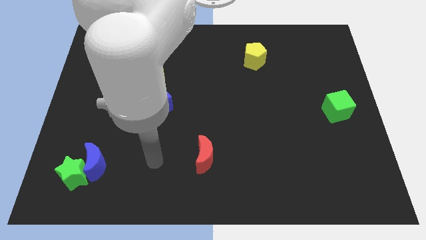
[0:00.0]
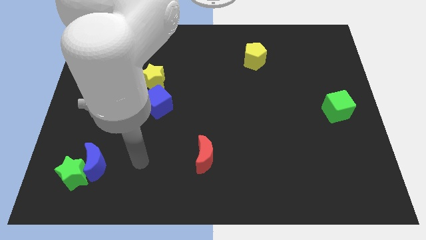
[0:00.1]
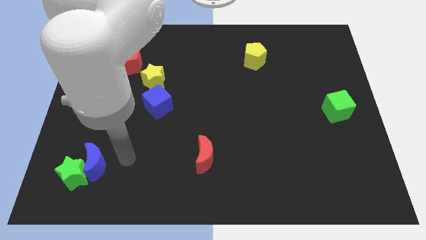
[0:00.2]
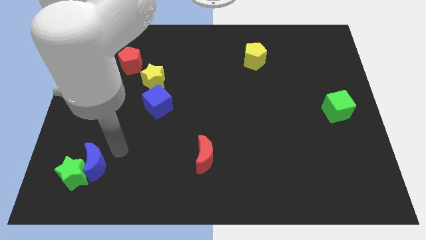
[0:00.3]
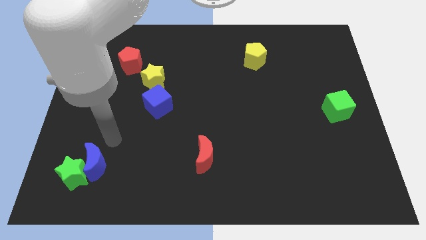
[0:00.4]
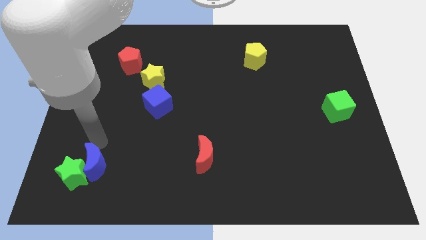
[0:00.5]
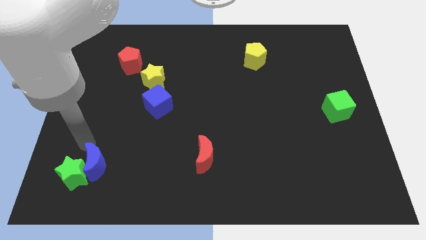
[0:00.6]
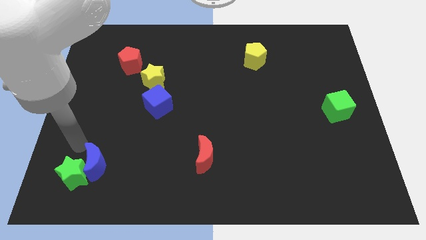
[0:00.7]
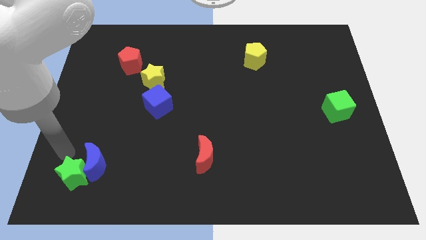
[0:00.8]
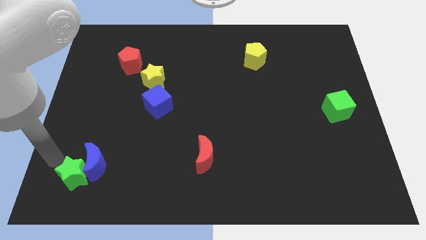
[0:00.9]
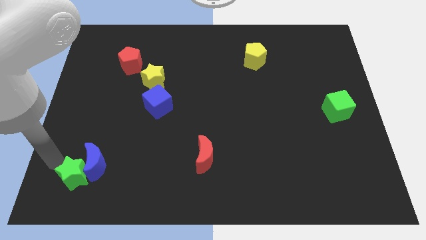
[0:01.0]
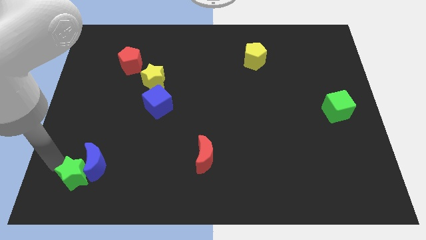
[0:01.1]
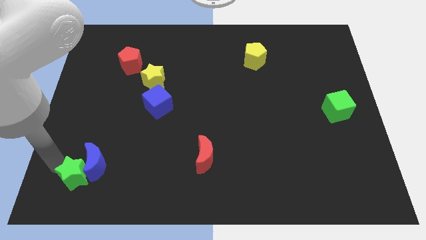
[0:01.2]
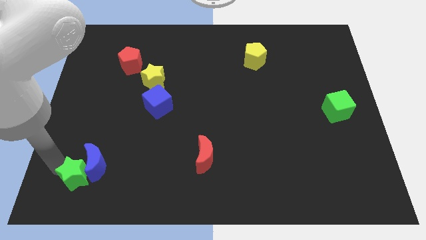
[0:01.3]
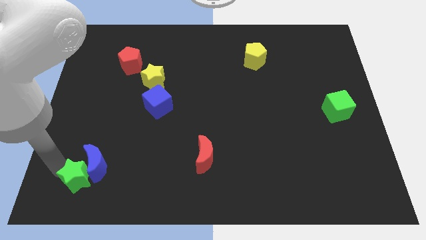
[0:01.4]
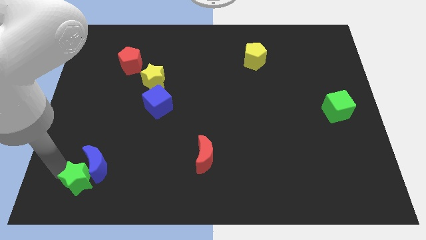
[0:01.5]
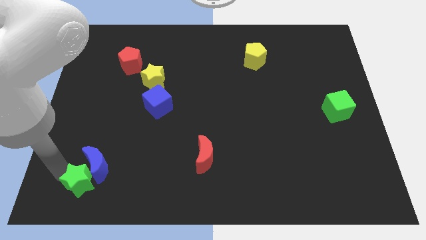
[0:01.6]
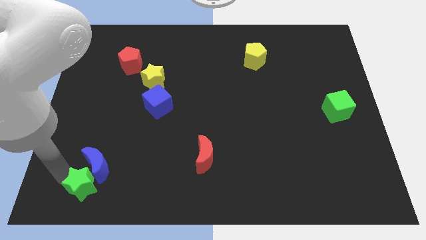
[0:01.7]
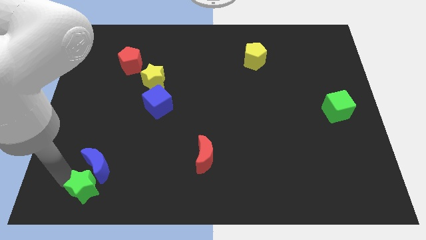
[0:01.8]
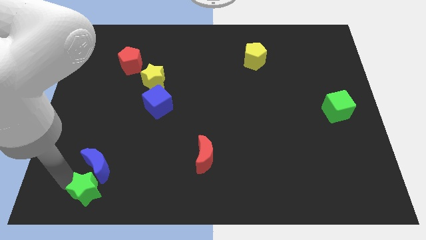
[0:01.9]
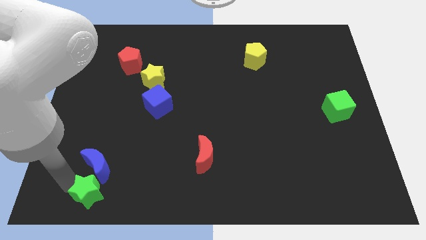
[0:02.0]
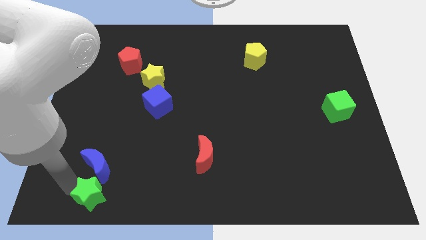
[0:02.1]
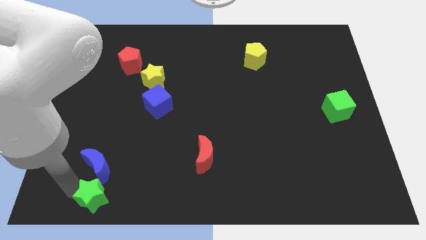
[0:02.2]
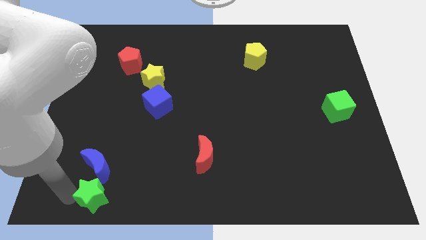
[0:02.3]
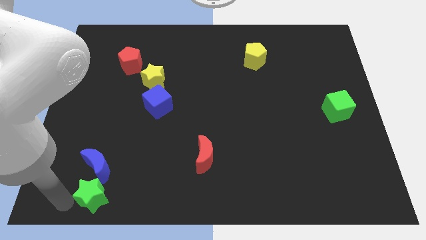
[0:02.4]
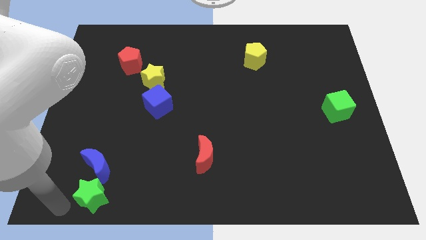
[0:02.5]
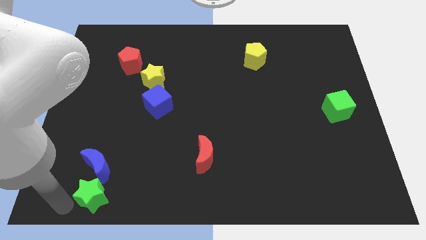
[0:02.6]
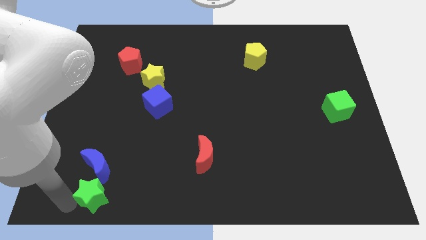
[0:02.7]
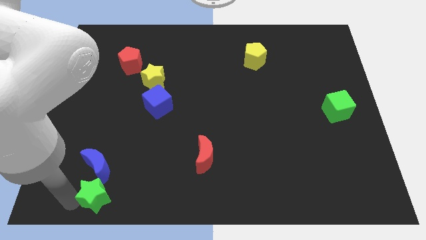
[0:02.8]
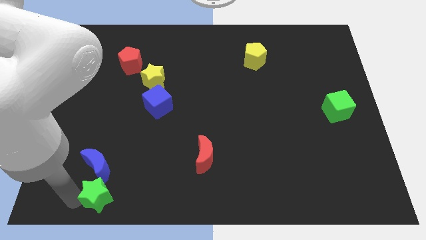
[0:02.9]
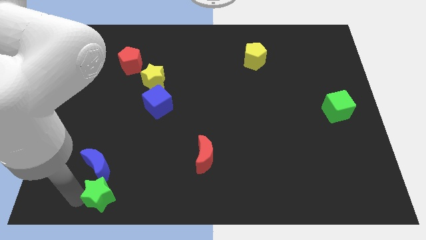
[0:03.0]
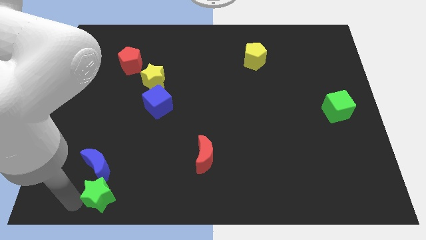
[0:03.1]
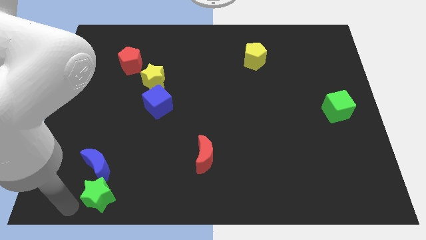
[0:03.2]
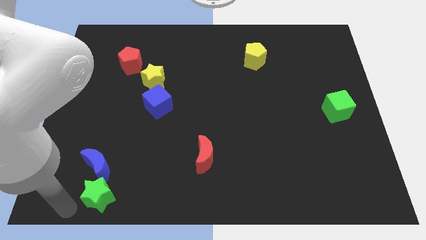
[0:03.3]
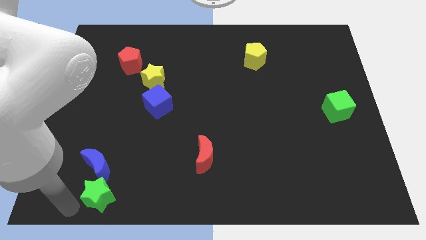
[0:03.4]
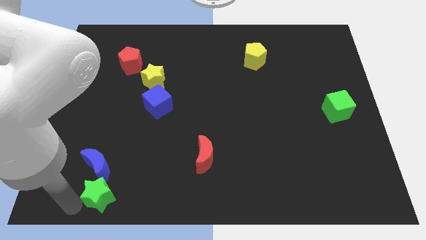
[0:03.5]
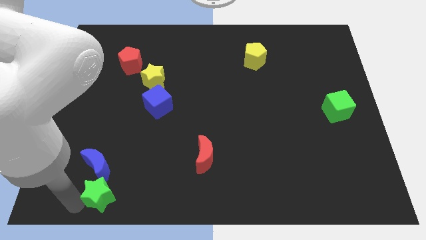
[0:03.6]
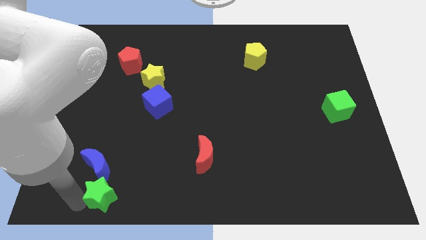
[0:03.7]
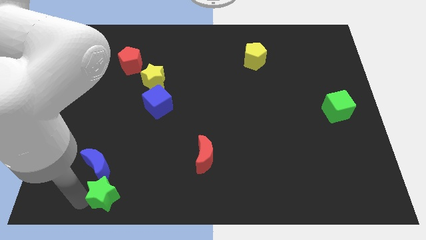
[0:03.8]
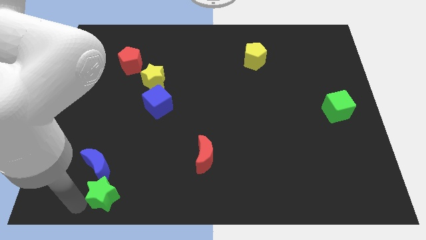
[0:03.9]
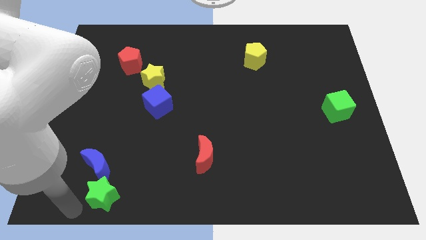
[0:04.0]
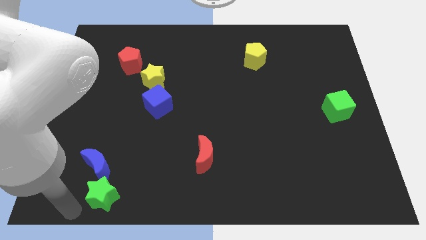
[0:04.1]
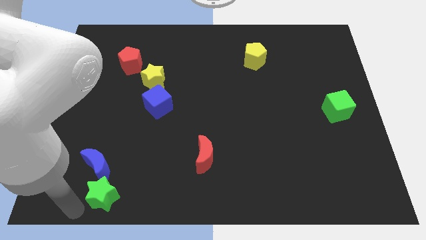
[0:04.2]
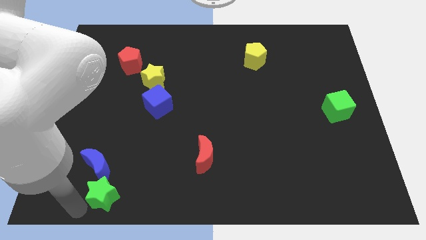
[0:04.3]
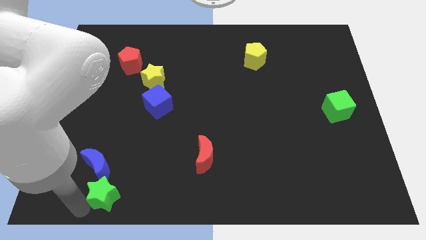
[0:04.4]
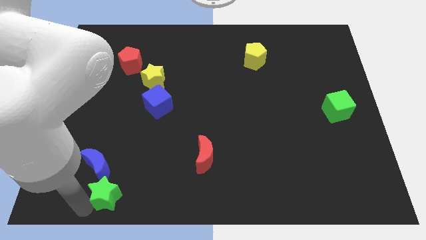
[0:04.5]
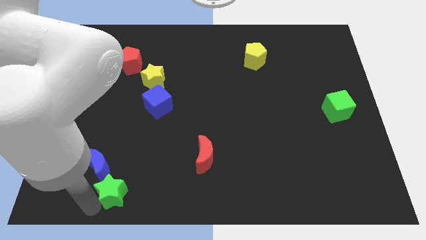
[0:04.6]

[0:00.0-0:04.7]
move the green star slightly to the right

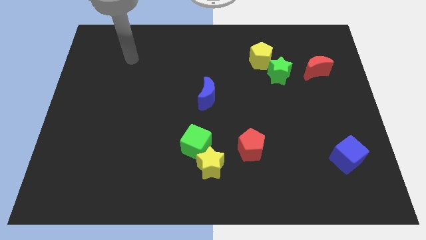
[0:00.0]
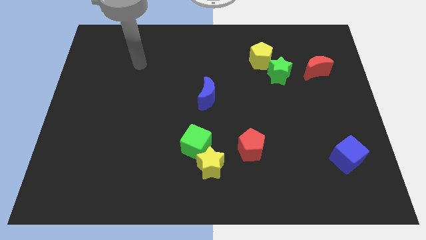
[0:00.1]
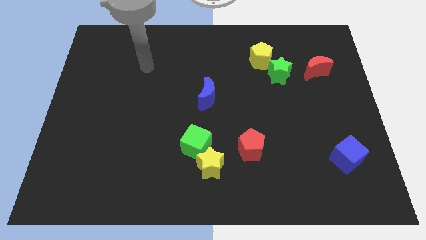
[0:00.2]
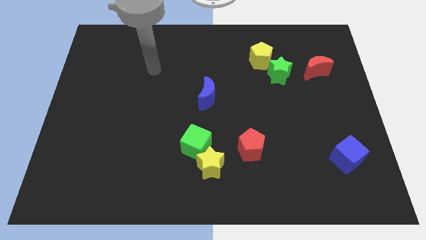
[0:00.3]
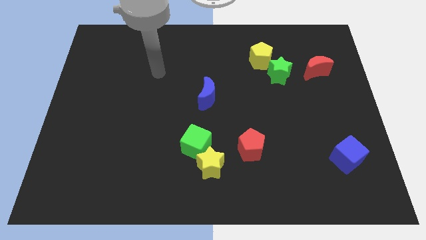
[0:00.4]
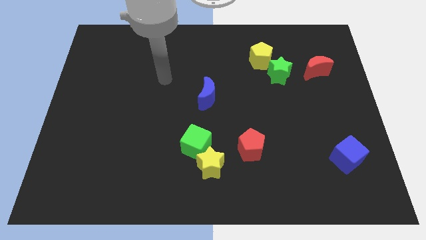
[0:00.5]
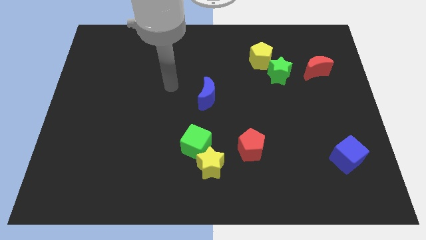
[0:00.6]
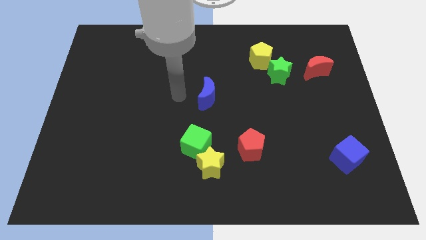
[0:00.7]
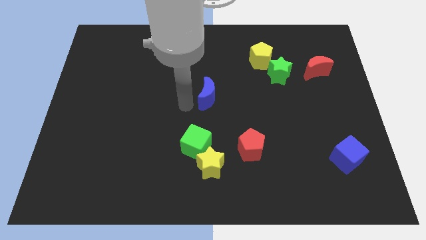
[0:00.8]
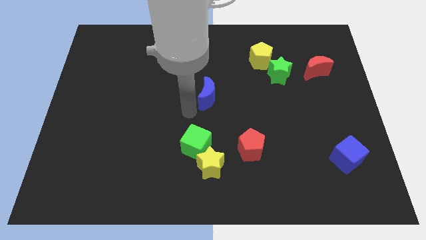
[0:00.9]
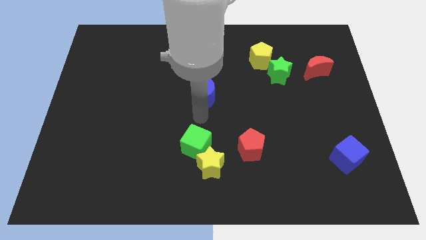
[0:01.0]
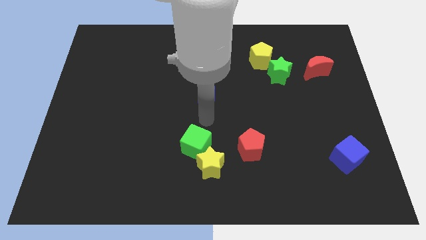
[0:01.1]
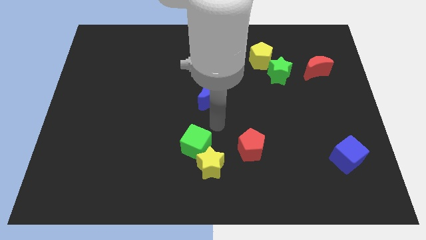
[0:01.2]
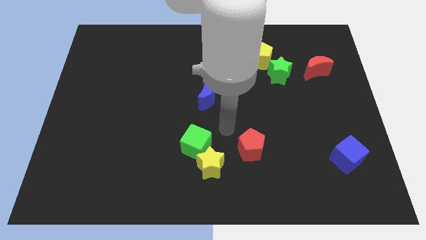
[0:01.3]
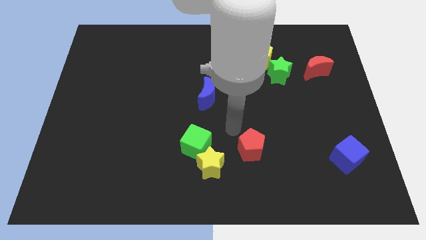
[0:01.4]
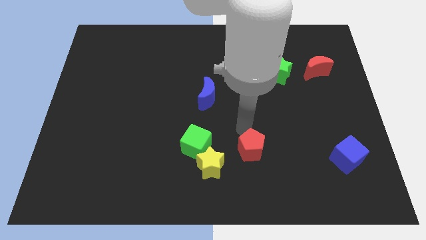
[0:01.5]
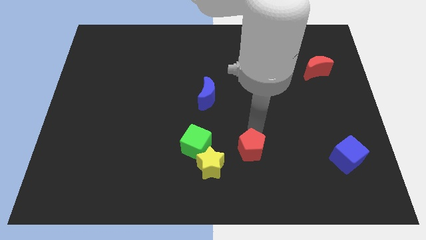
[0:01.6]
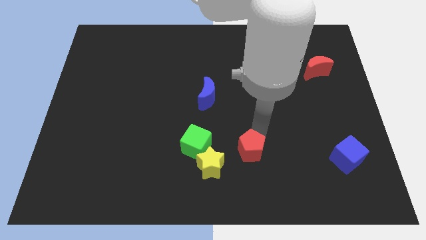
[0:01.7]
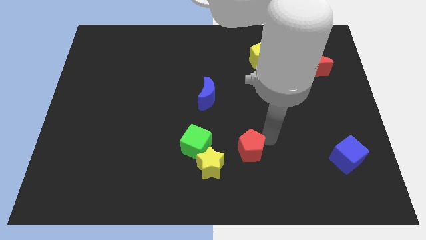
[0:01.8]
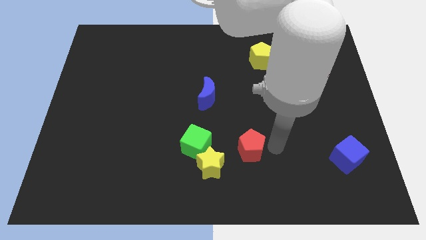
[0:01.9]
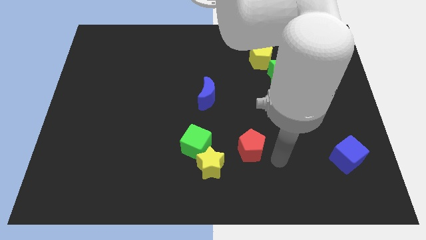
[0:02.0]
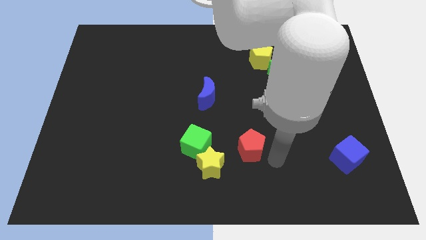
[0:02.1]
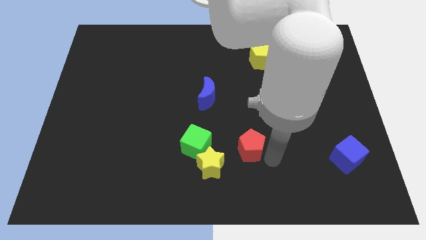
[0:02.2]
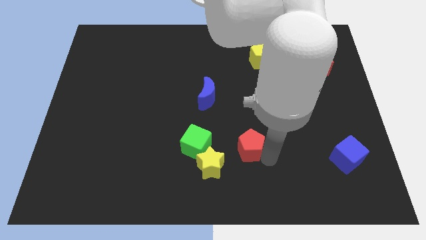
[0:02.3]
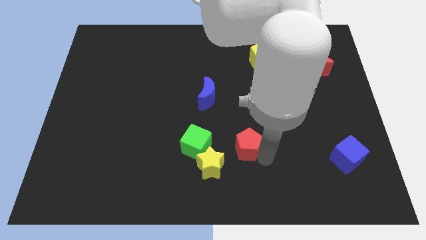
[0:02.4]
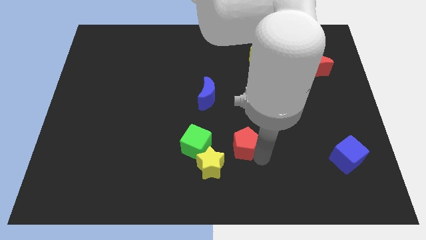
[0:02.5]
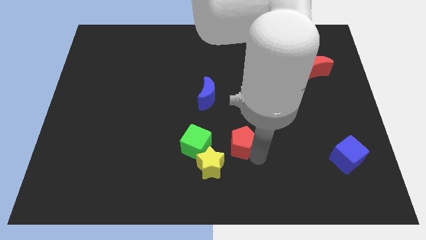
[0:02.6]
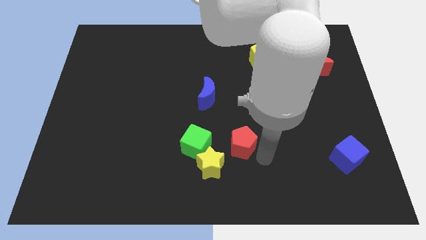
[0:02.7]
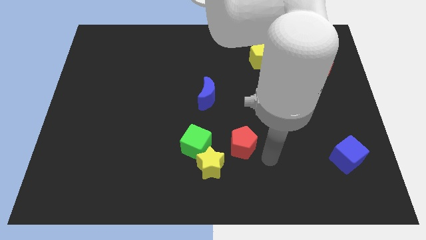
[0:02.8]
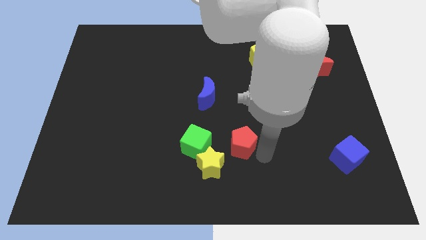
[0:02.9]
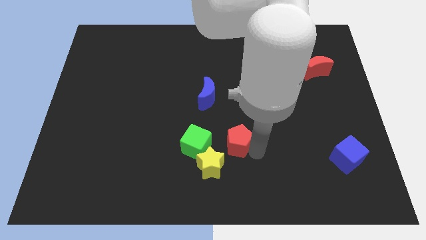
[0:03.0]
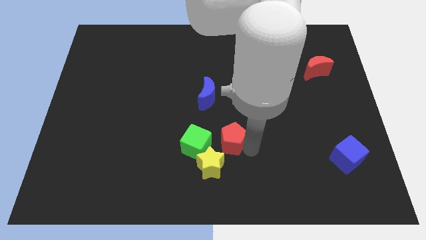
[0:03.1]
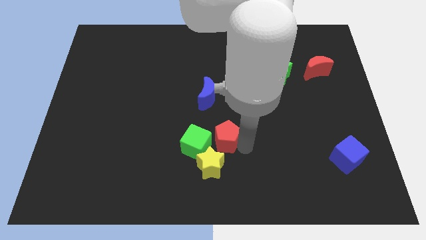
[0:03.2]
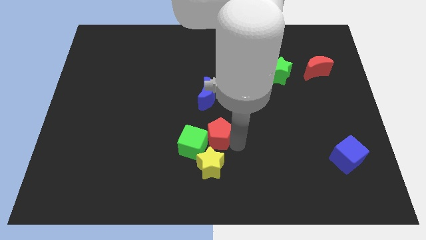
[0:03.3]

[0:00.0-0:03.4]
push the red pentagon upwards and then to the left a bit

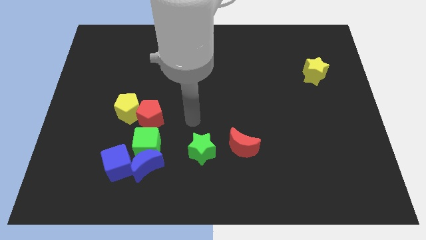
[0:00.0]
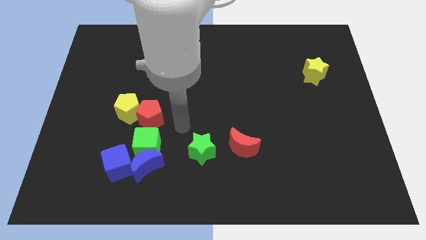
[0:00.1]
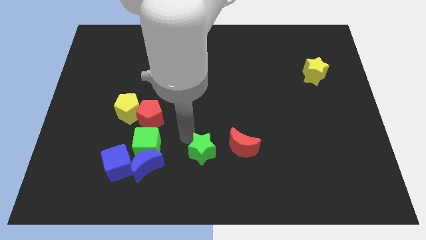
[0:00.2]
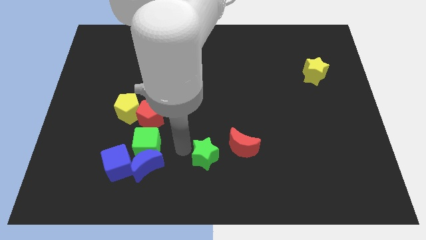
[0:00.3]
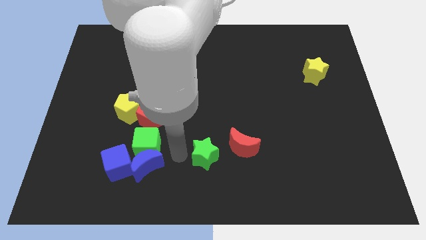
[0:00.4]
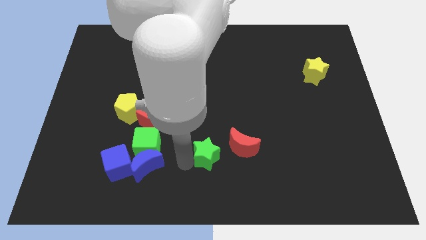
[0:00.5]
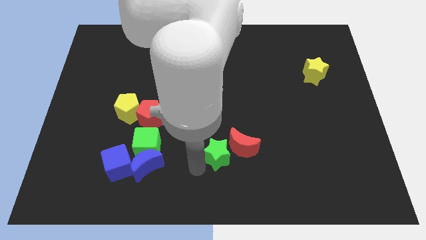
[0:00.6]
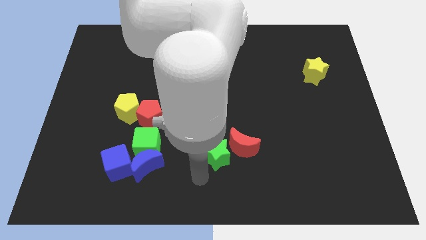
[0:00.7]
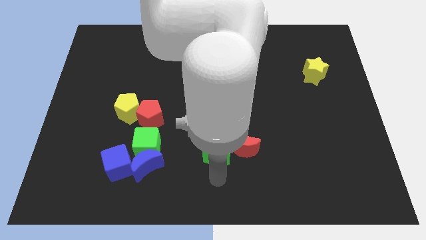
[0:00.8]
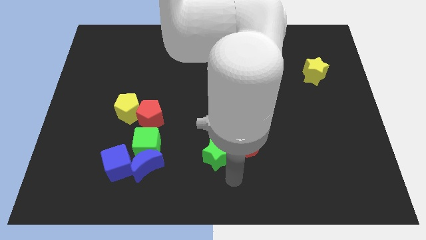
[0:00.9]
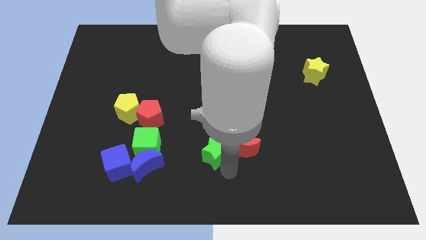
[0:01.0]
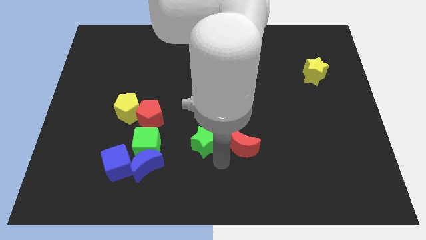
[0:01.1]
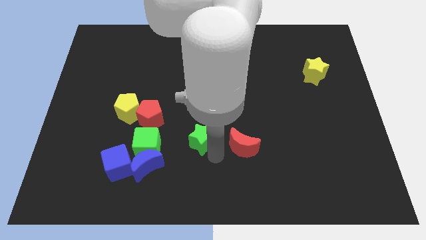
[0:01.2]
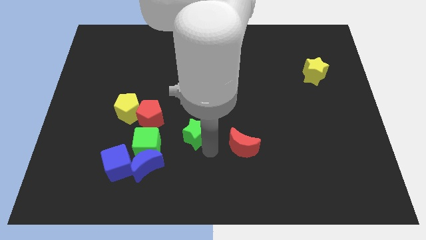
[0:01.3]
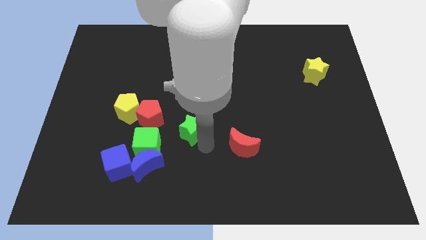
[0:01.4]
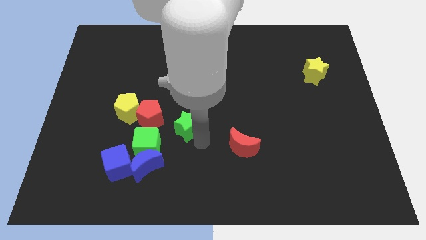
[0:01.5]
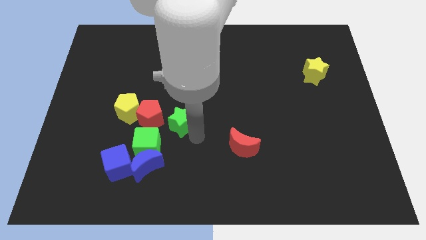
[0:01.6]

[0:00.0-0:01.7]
move the green star upwards and left somewhat
